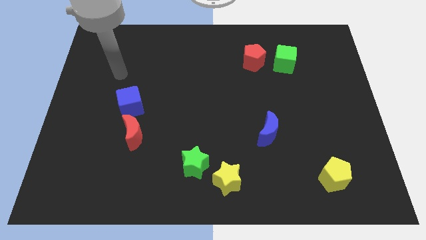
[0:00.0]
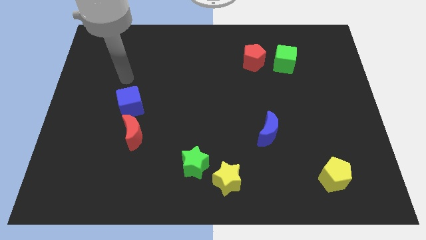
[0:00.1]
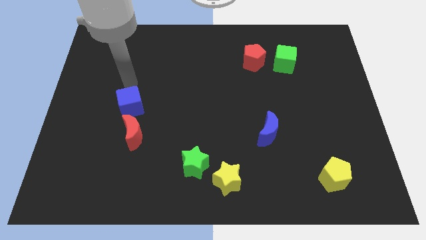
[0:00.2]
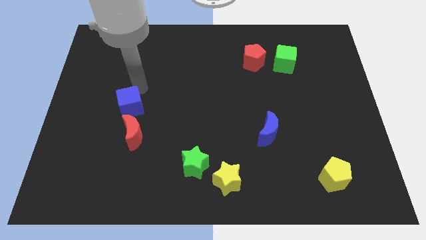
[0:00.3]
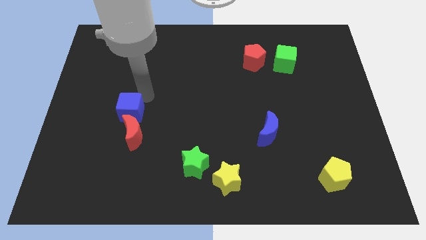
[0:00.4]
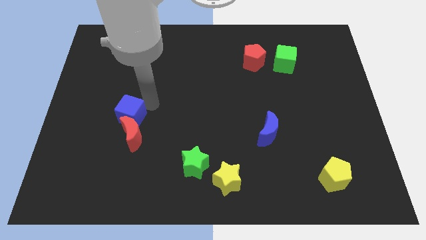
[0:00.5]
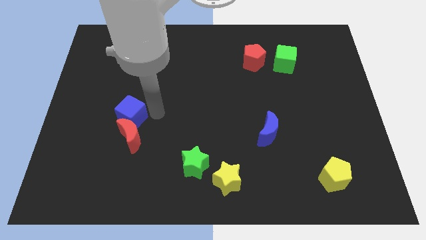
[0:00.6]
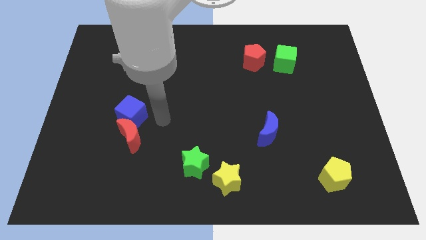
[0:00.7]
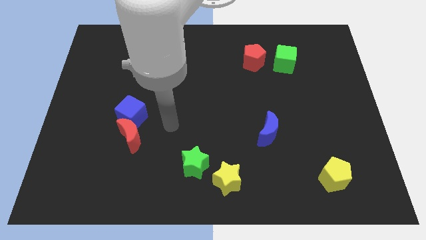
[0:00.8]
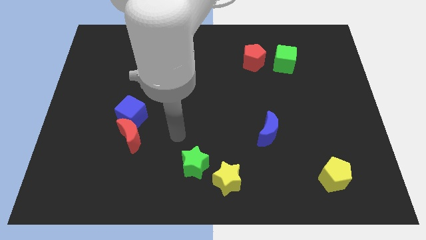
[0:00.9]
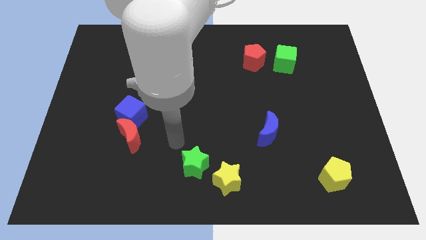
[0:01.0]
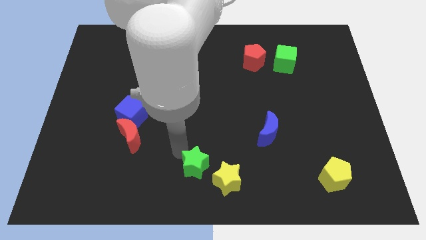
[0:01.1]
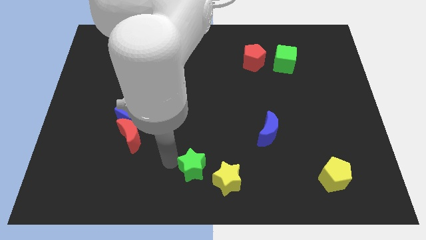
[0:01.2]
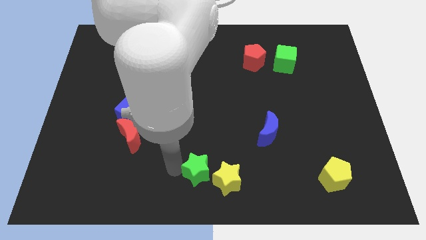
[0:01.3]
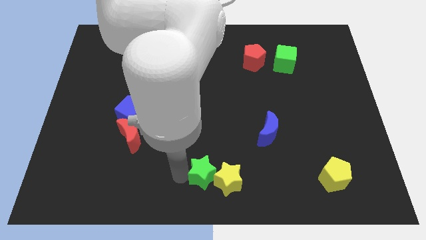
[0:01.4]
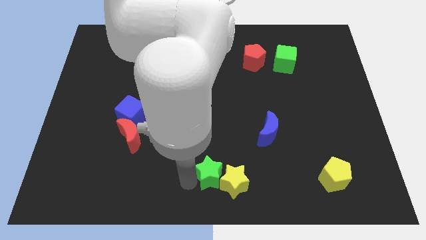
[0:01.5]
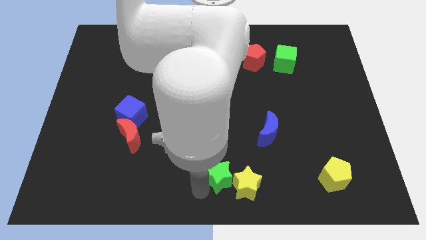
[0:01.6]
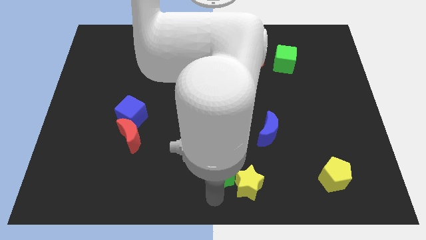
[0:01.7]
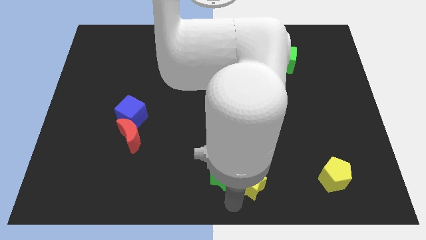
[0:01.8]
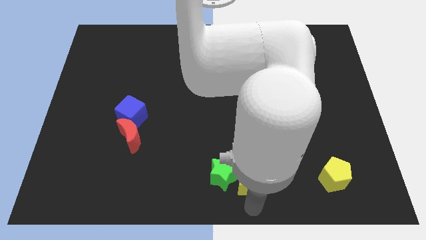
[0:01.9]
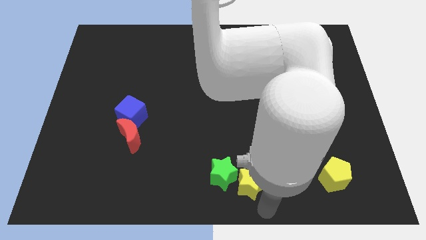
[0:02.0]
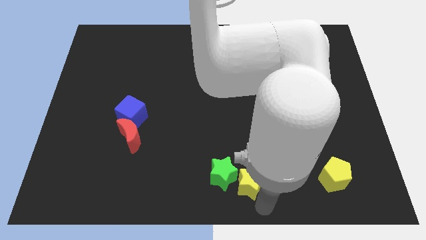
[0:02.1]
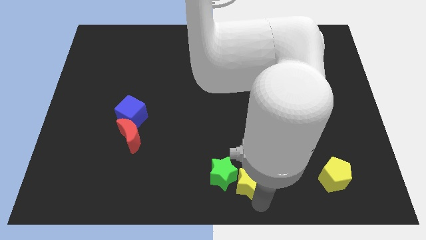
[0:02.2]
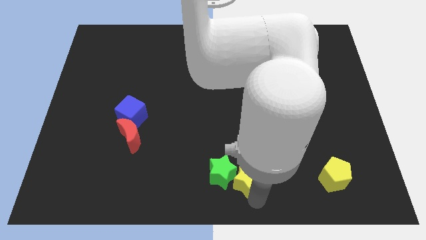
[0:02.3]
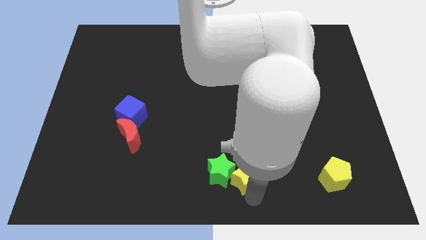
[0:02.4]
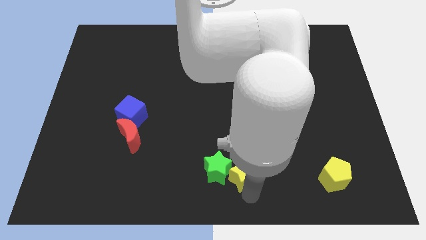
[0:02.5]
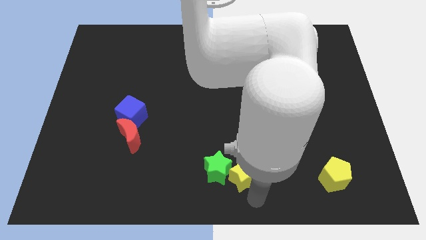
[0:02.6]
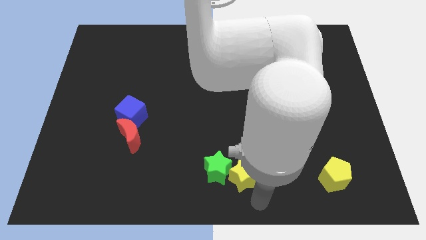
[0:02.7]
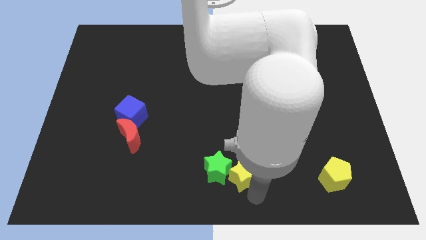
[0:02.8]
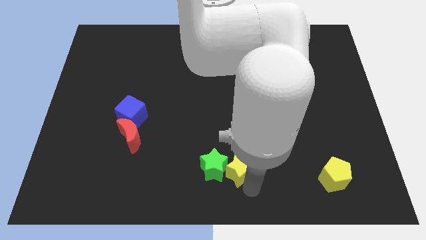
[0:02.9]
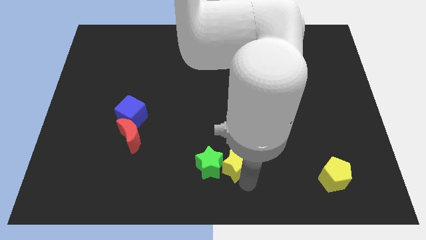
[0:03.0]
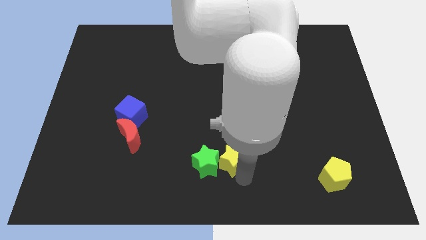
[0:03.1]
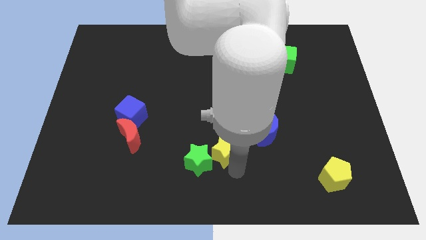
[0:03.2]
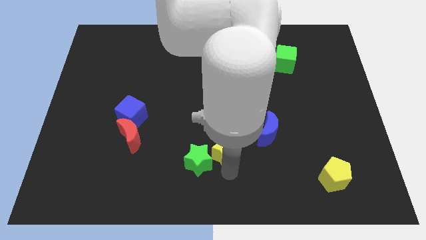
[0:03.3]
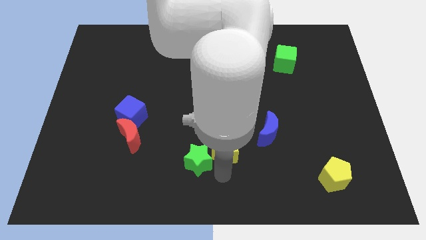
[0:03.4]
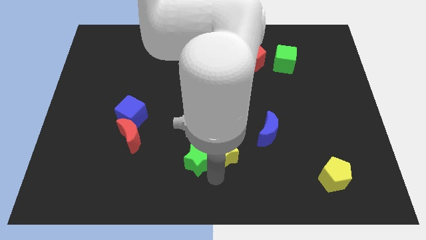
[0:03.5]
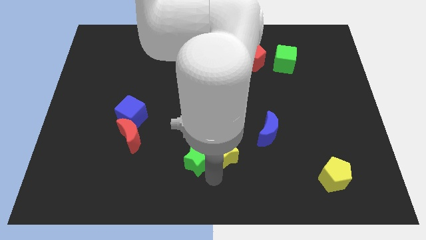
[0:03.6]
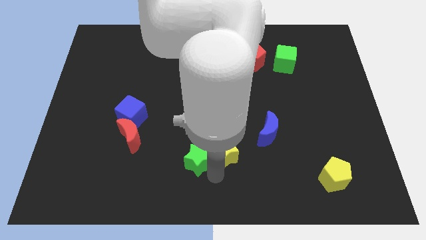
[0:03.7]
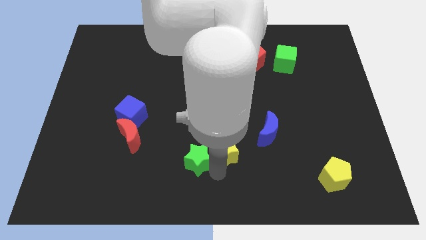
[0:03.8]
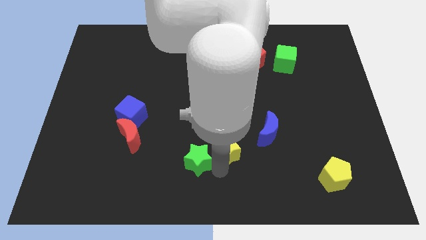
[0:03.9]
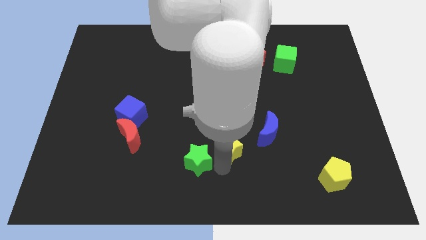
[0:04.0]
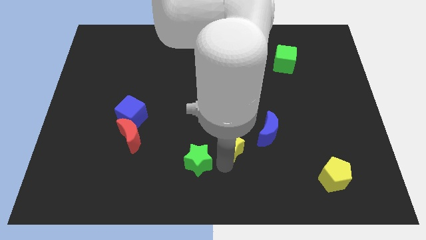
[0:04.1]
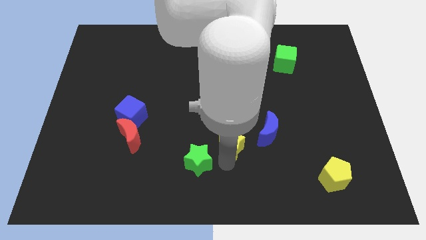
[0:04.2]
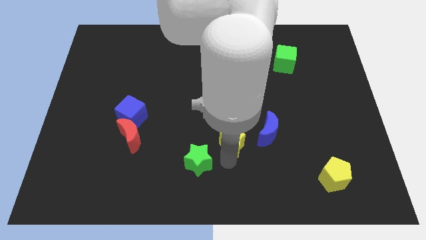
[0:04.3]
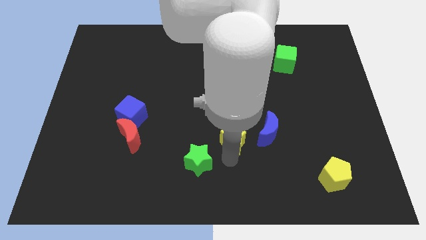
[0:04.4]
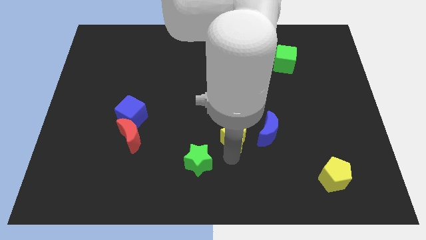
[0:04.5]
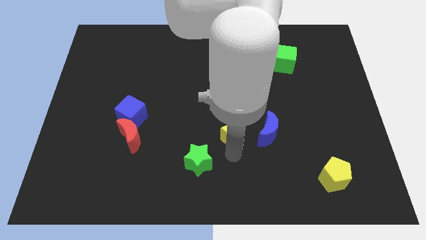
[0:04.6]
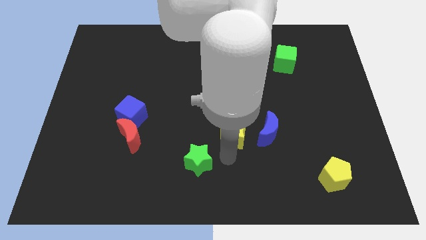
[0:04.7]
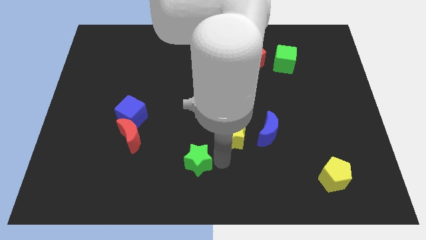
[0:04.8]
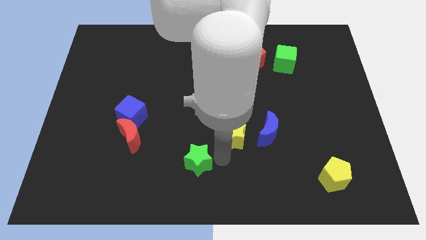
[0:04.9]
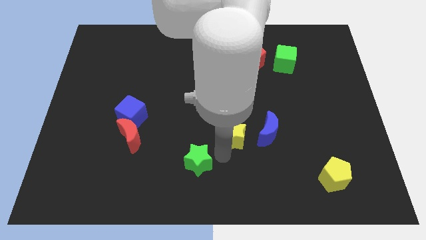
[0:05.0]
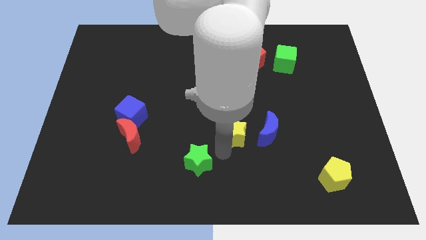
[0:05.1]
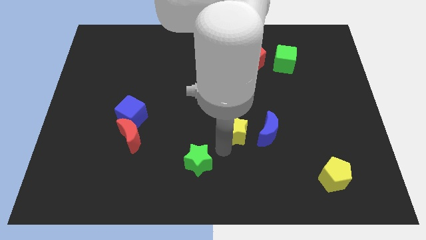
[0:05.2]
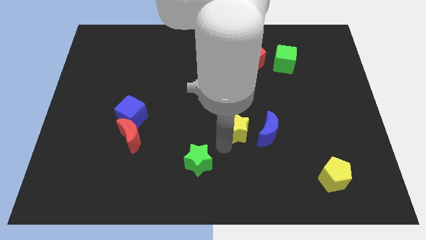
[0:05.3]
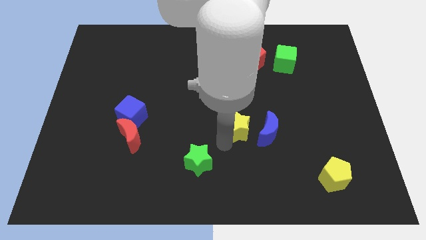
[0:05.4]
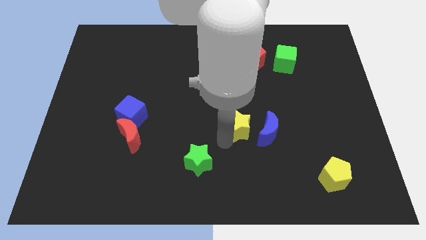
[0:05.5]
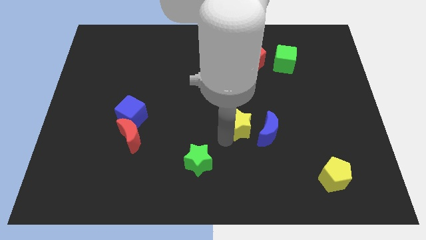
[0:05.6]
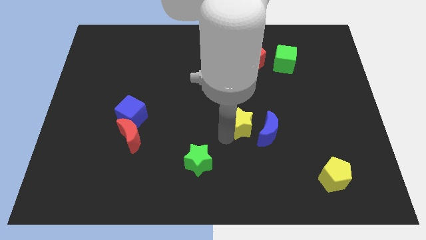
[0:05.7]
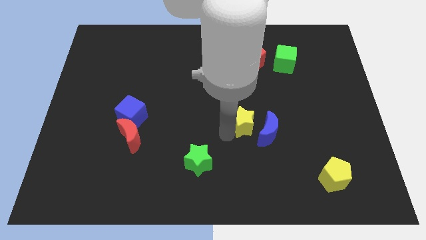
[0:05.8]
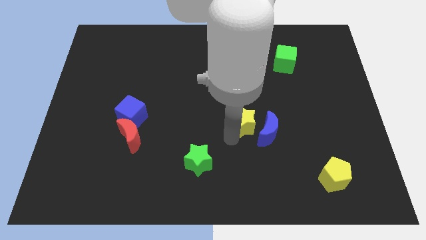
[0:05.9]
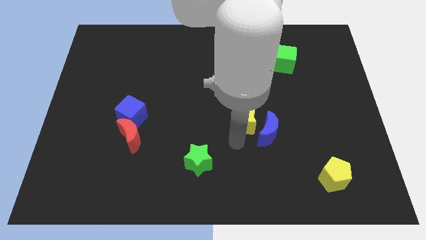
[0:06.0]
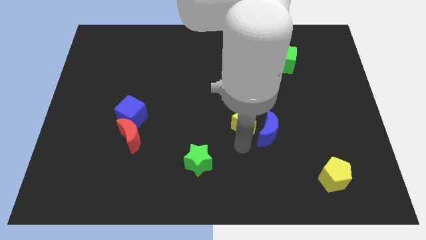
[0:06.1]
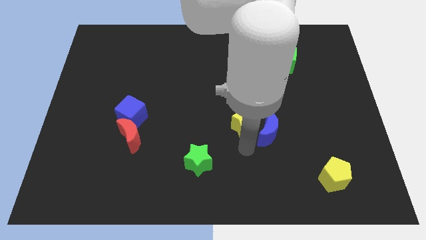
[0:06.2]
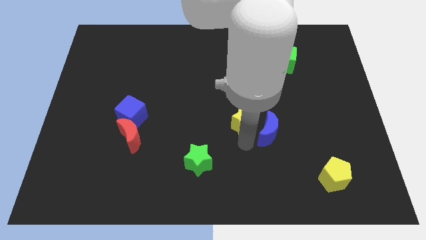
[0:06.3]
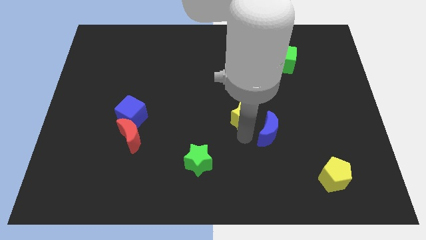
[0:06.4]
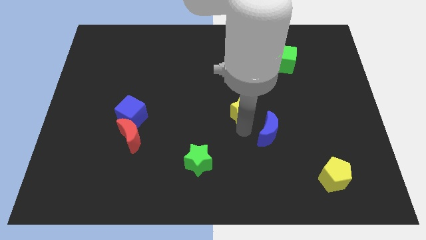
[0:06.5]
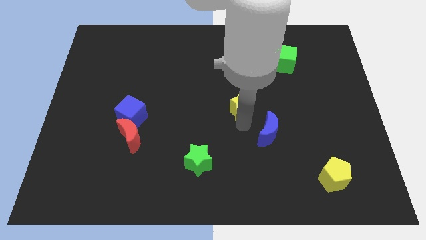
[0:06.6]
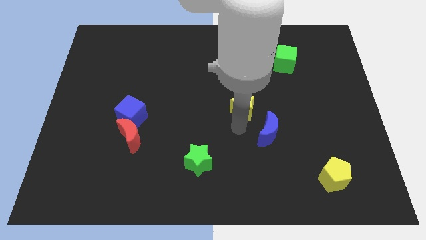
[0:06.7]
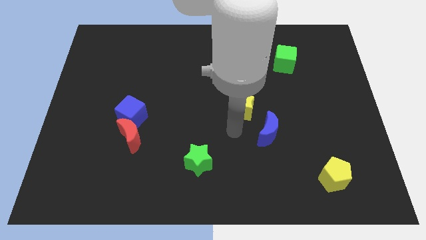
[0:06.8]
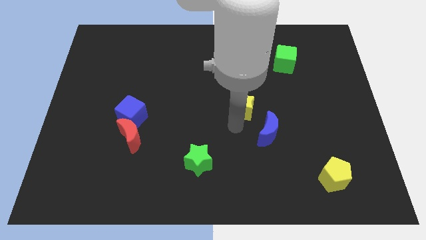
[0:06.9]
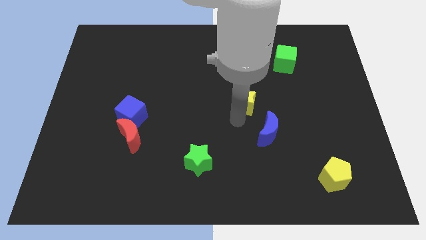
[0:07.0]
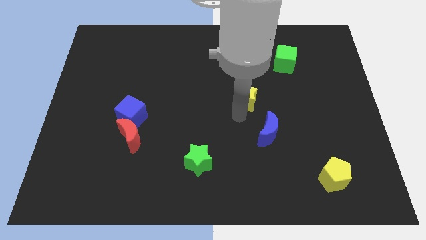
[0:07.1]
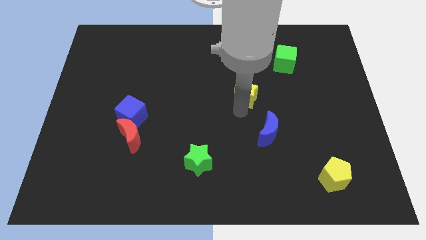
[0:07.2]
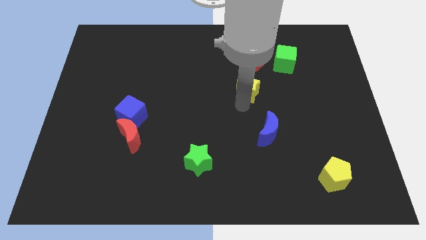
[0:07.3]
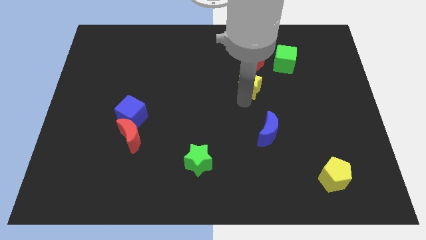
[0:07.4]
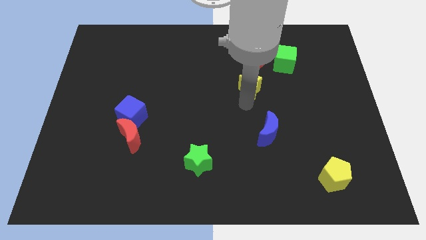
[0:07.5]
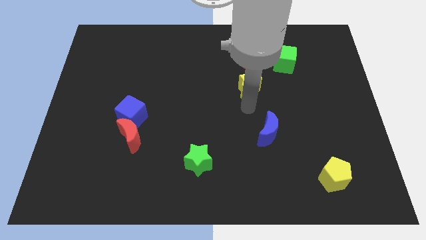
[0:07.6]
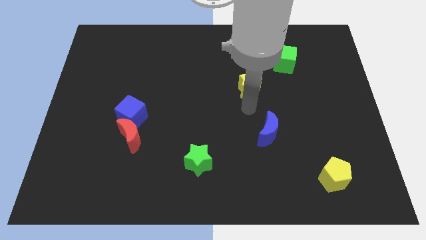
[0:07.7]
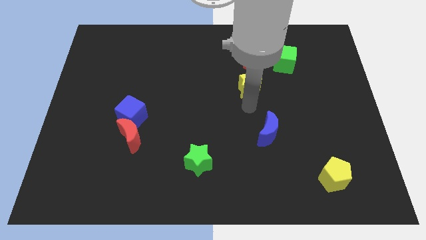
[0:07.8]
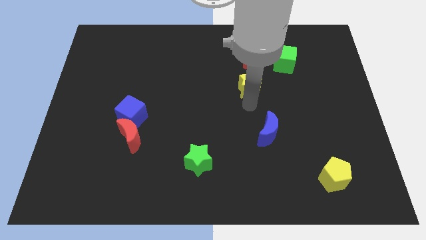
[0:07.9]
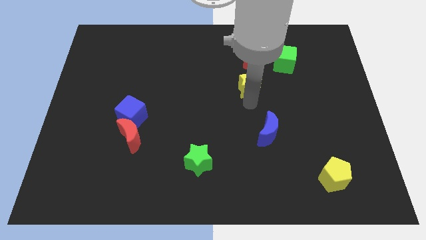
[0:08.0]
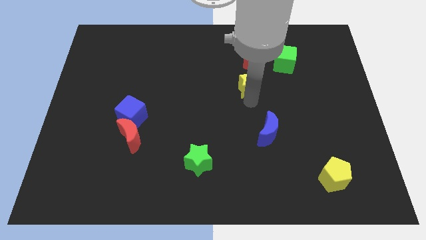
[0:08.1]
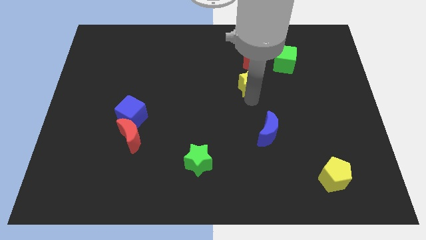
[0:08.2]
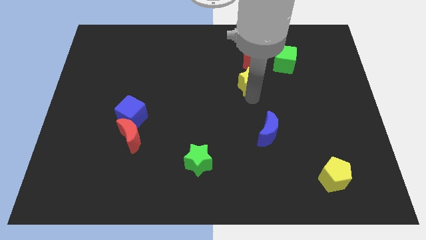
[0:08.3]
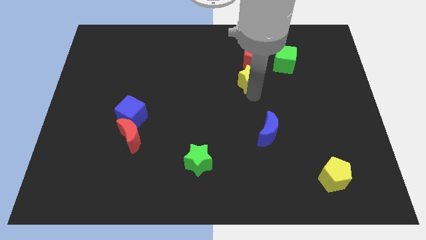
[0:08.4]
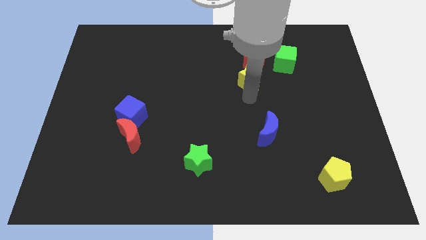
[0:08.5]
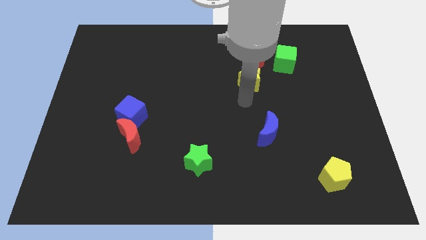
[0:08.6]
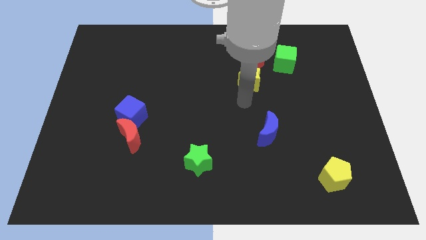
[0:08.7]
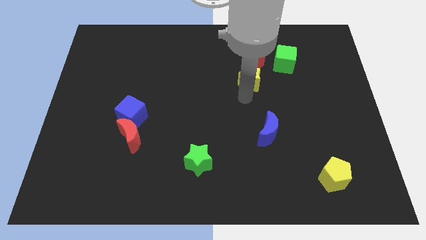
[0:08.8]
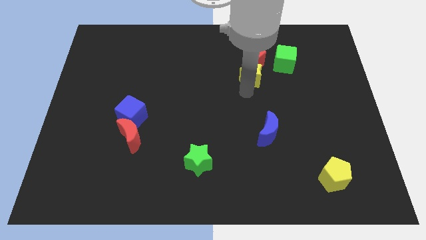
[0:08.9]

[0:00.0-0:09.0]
move the yellow star close to the red pentagon
